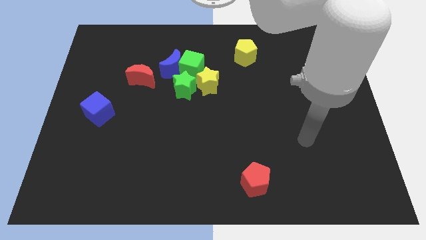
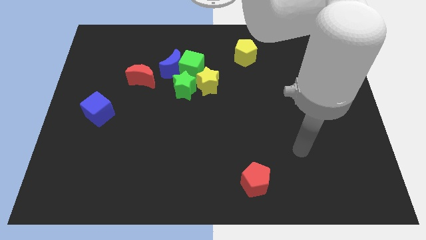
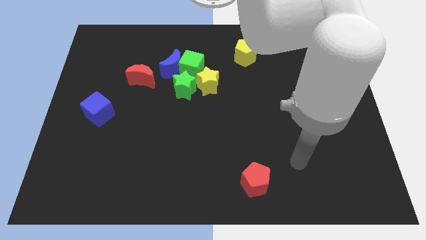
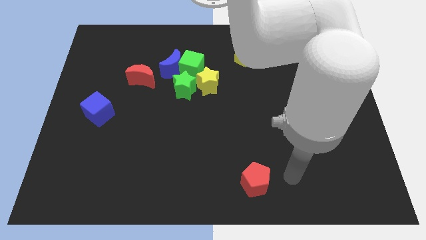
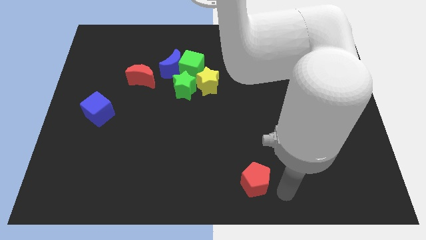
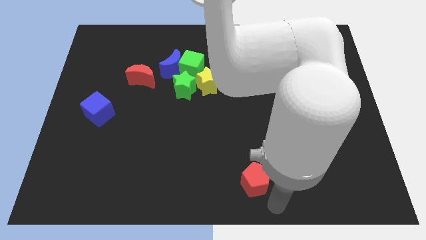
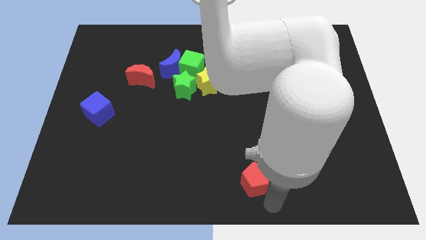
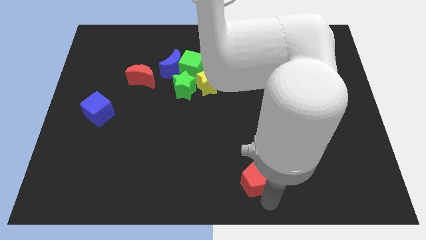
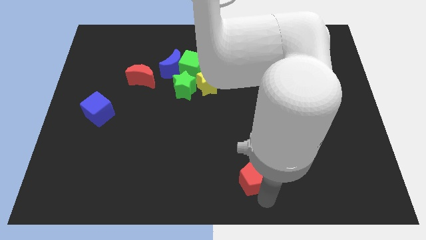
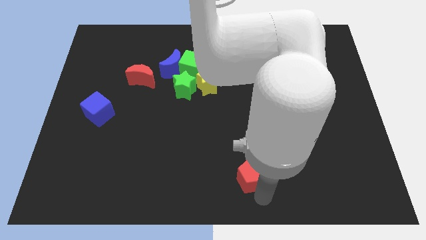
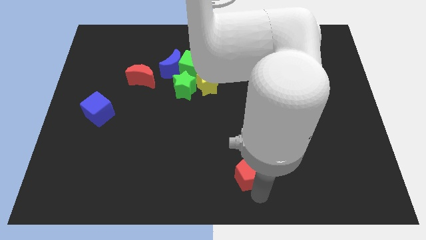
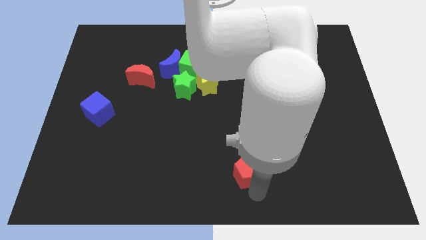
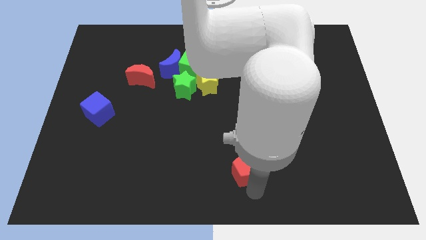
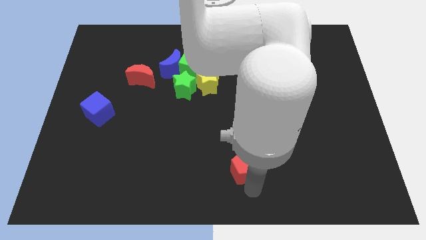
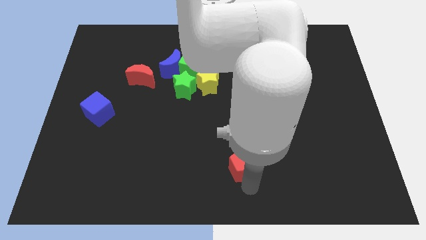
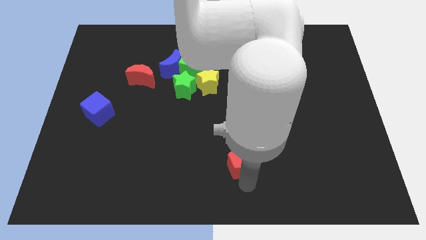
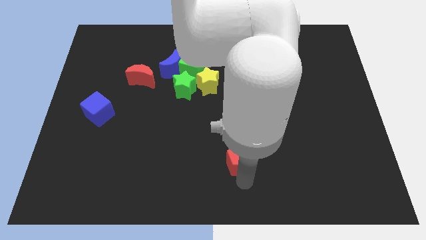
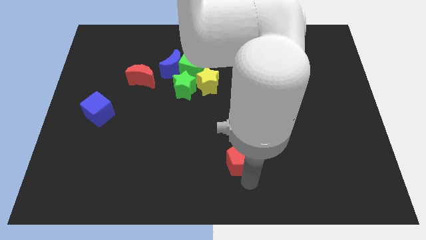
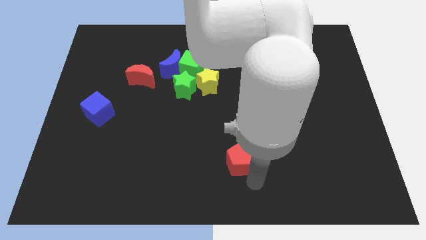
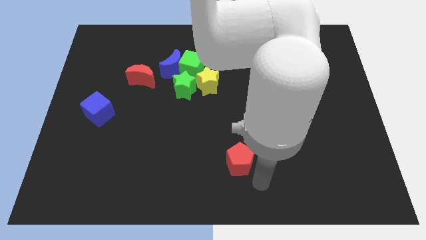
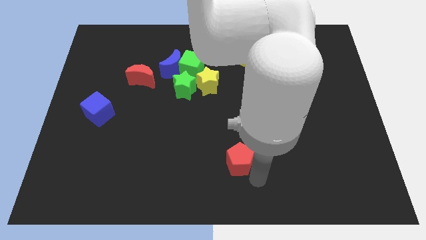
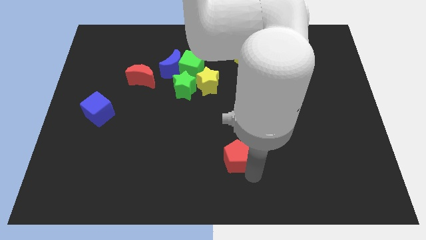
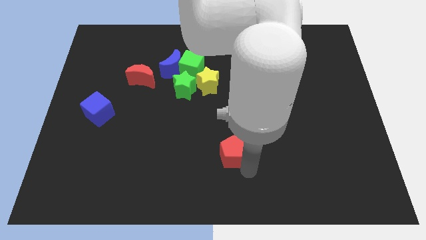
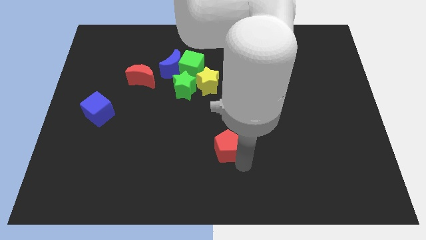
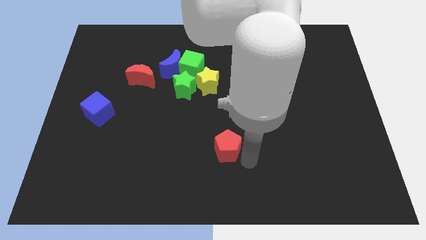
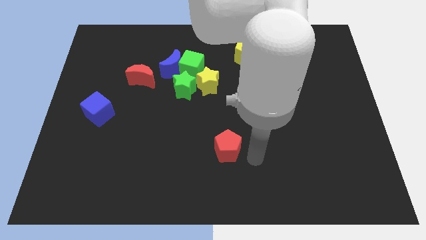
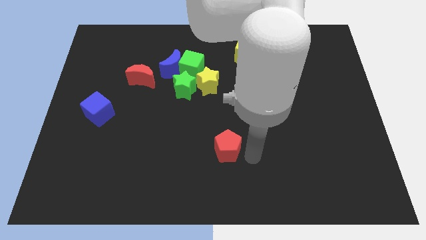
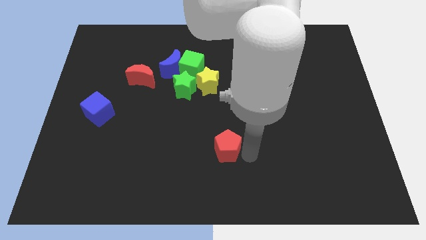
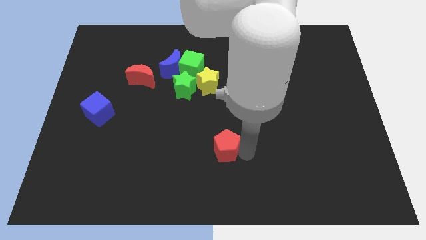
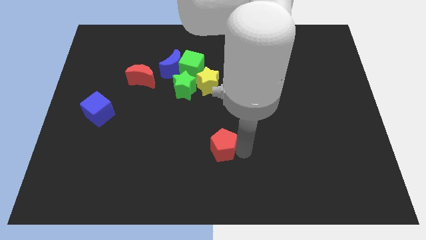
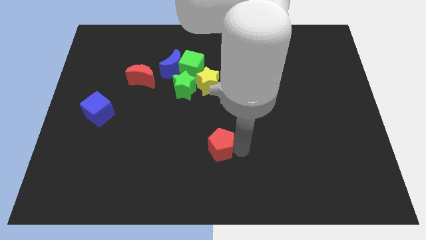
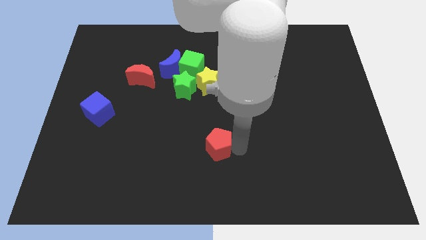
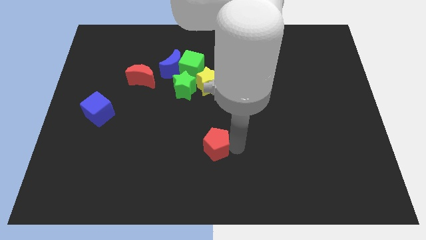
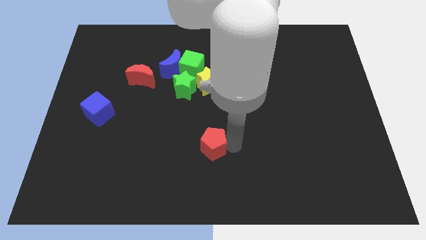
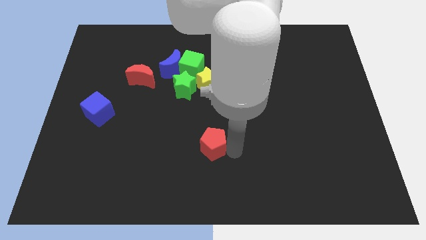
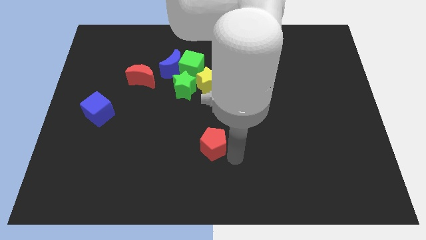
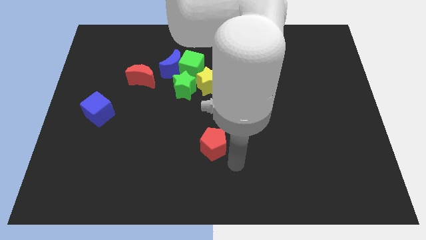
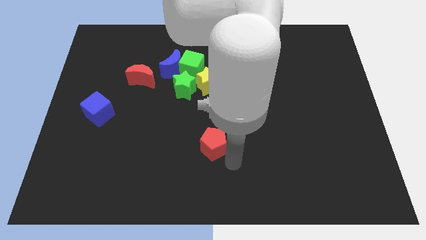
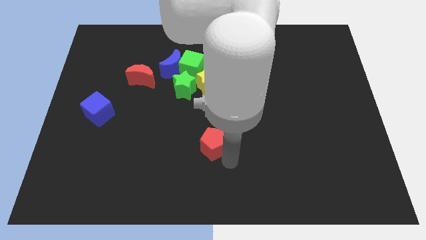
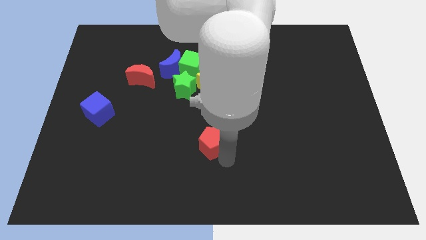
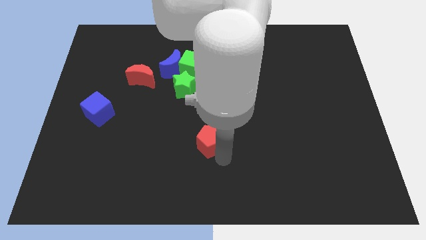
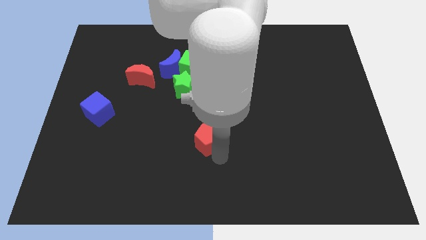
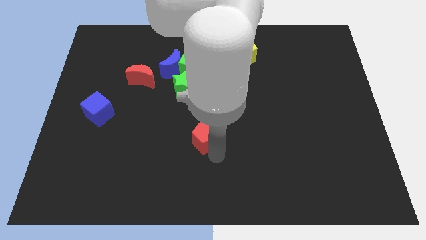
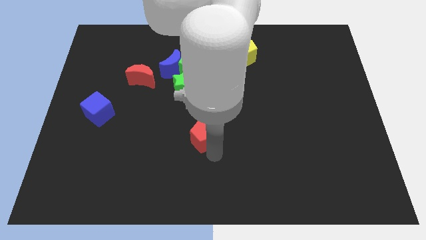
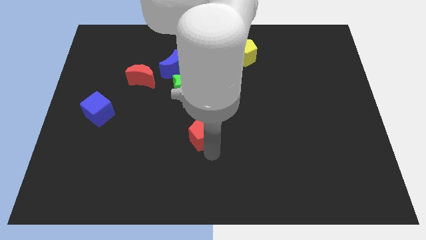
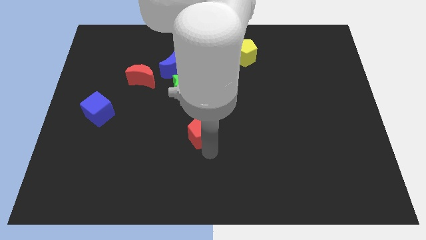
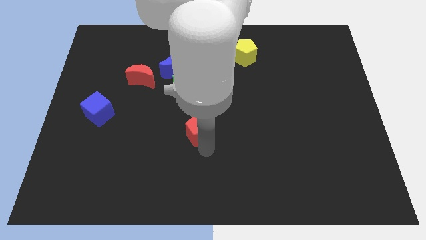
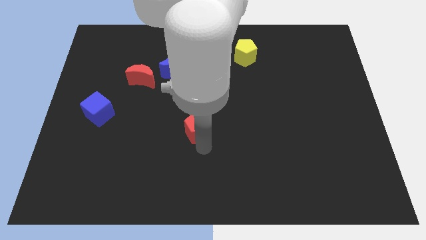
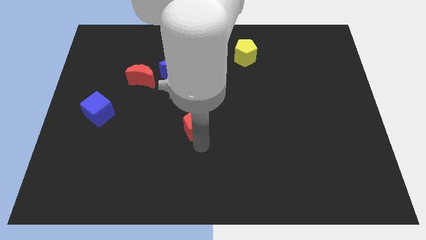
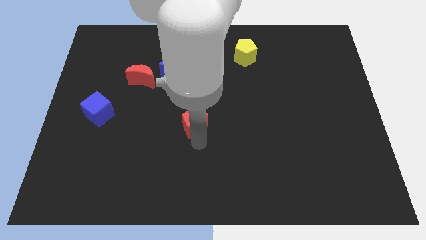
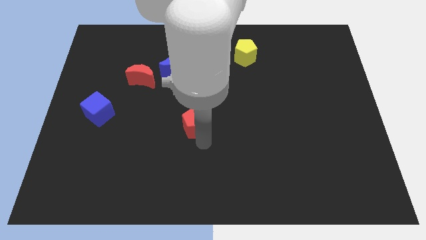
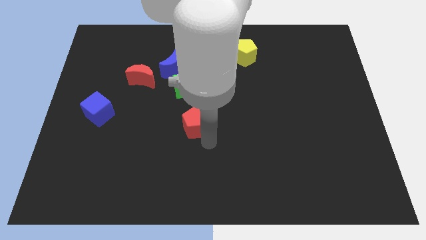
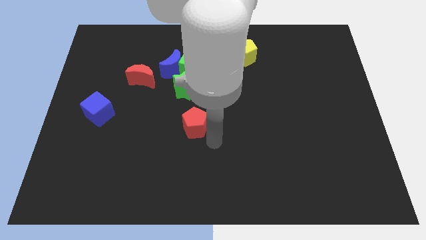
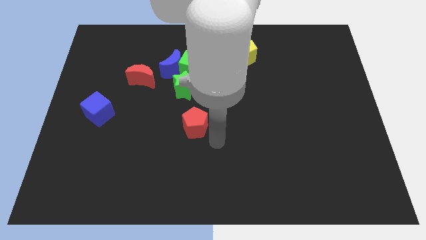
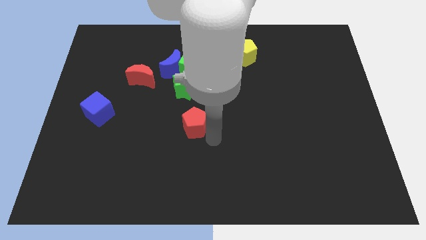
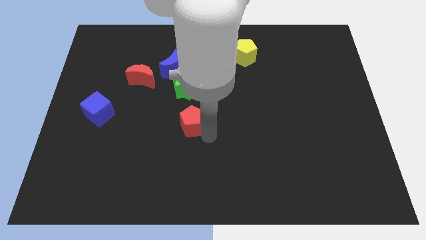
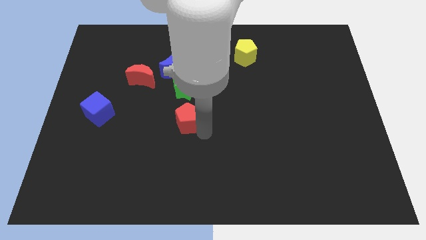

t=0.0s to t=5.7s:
move the red pentagon up and to the left diagonally

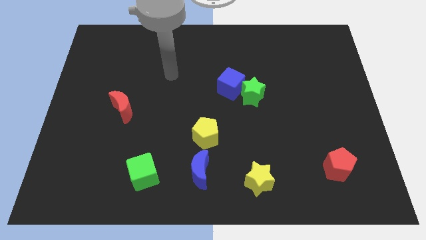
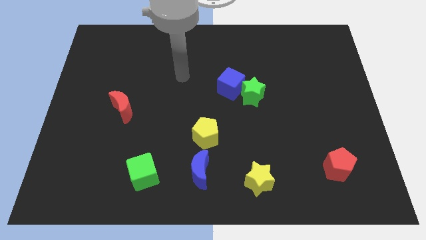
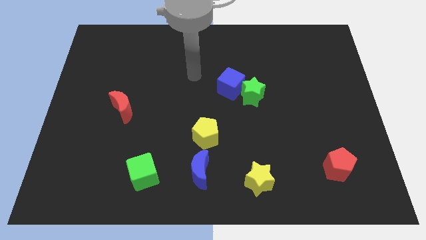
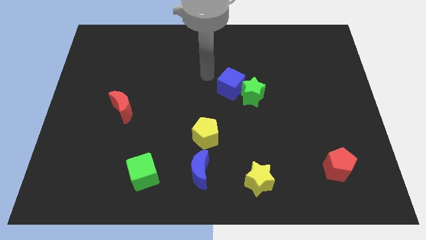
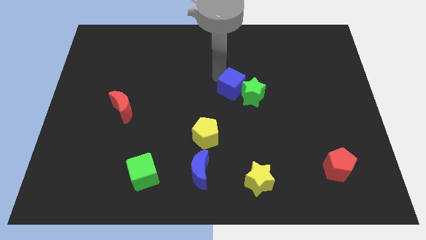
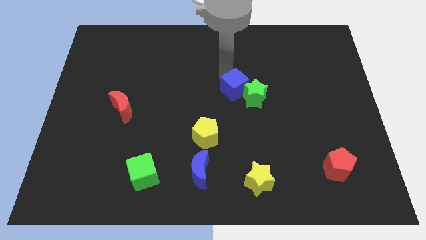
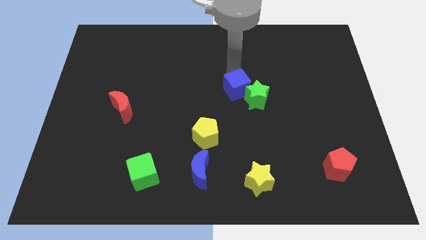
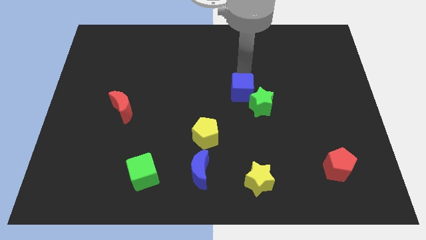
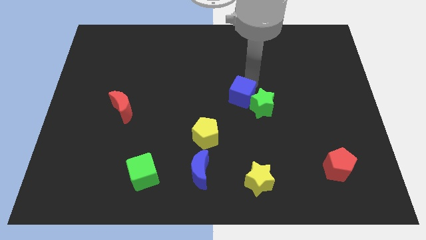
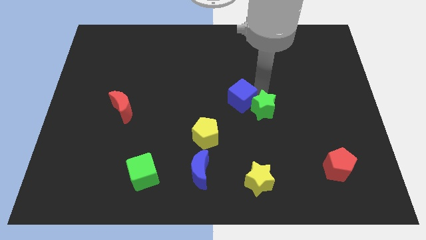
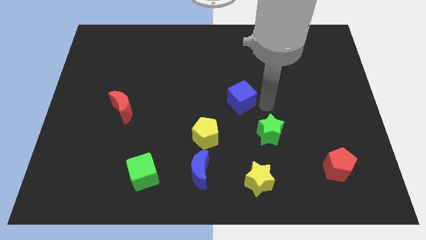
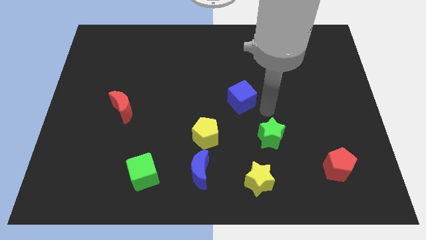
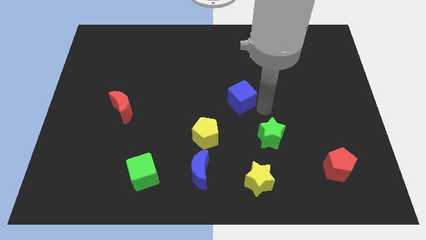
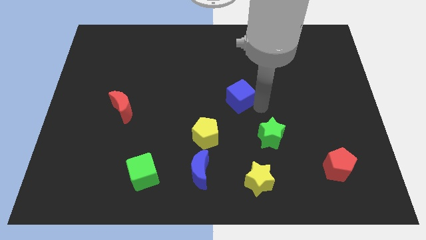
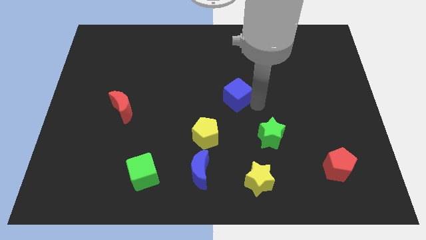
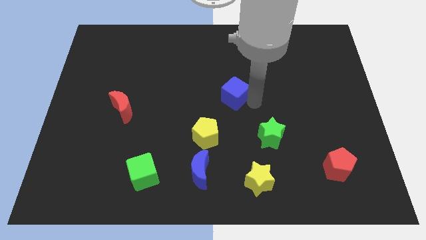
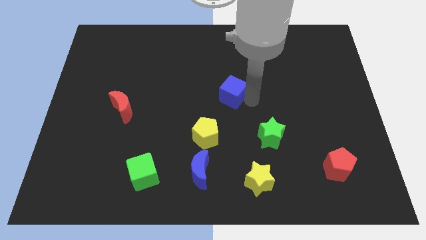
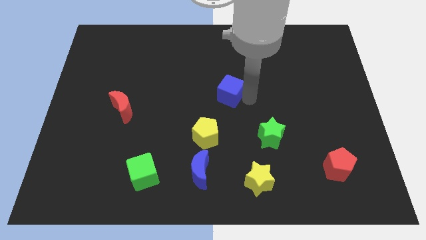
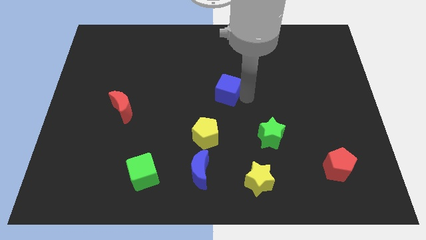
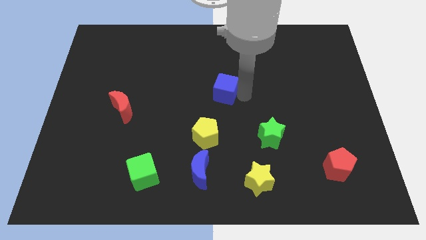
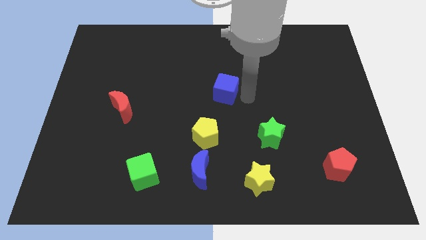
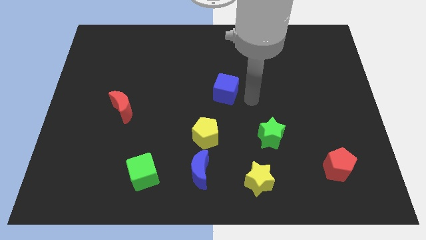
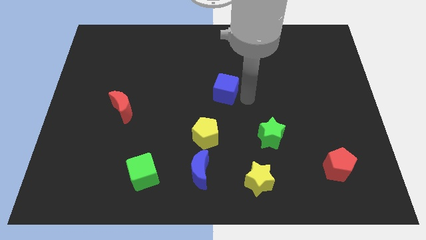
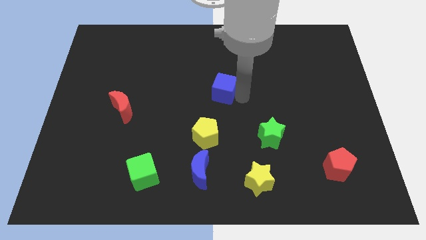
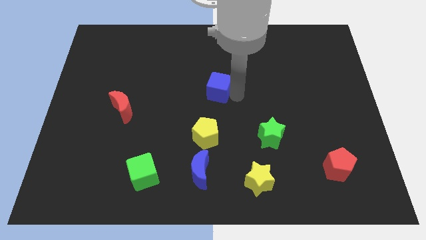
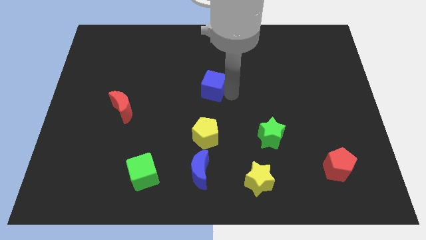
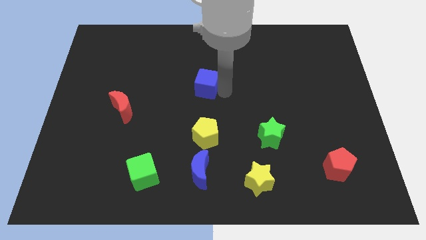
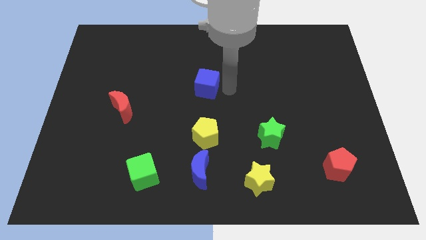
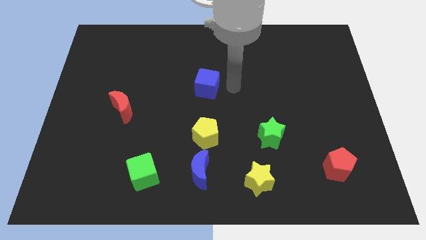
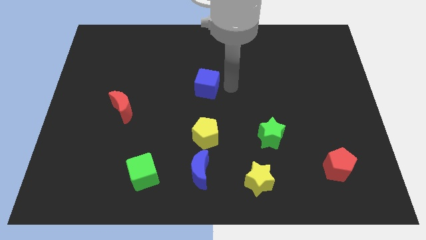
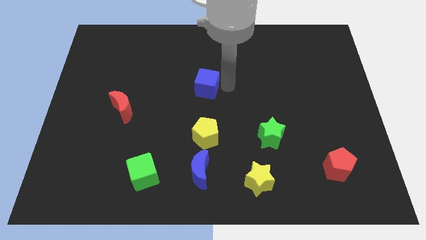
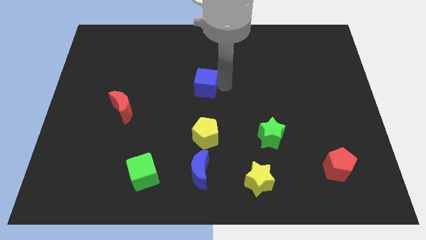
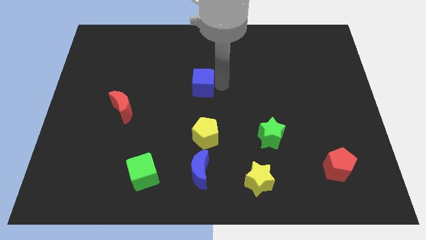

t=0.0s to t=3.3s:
slide the blue cube a little left
